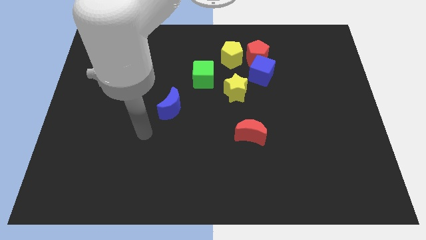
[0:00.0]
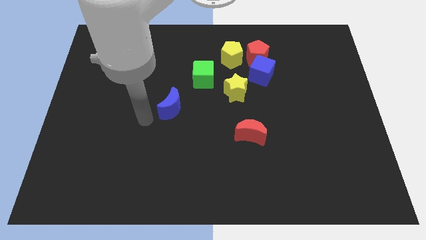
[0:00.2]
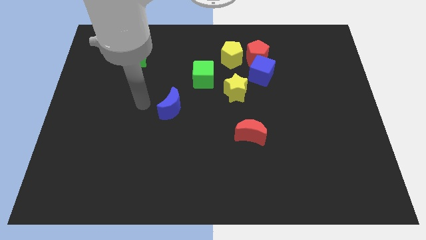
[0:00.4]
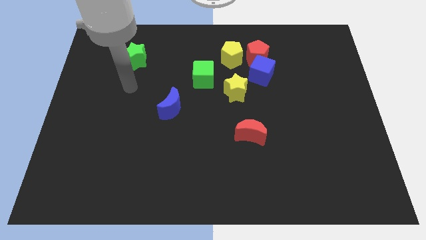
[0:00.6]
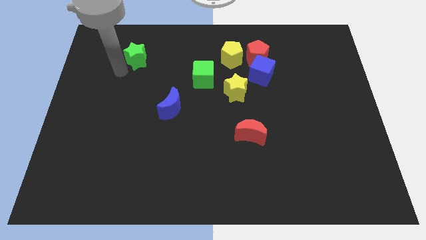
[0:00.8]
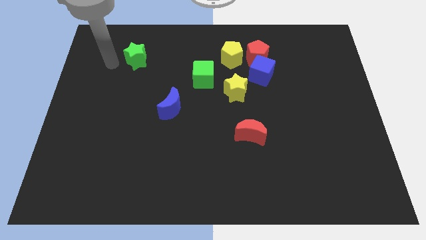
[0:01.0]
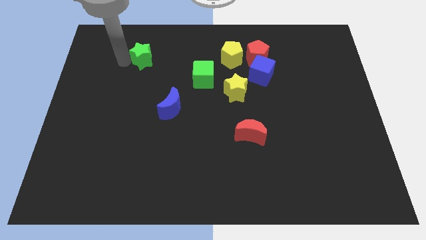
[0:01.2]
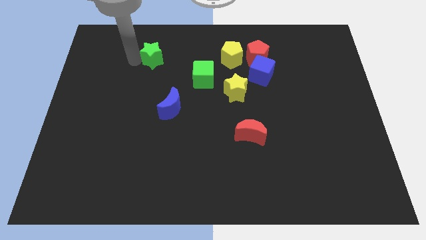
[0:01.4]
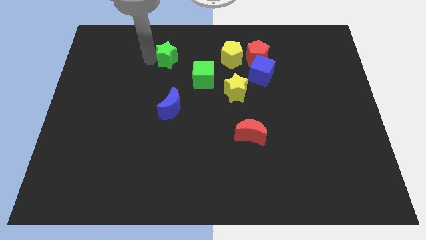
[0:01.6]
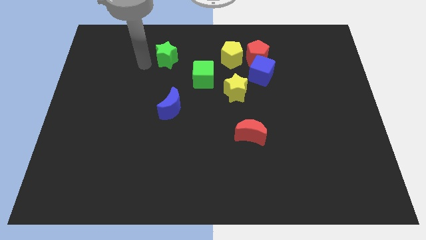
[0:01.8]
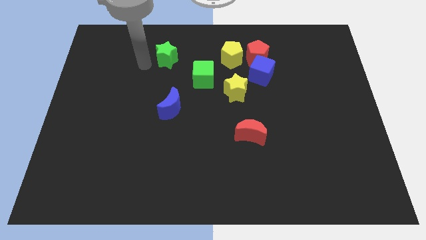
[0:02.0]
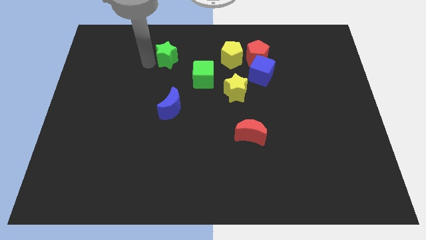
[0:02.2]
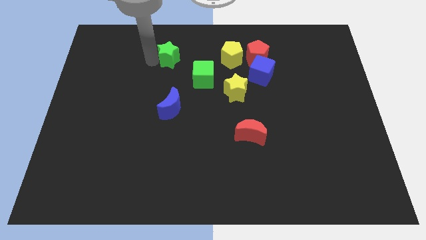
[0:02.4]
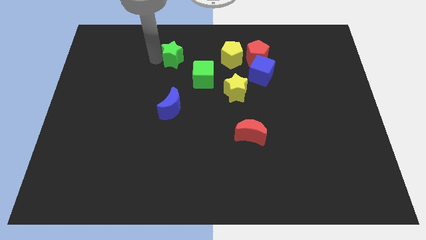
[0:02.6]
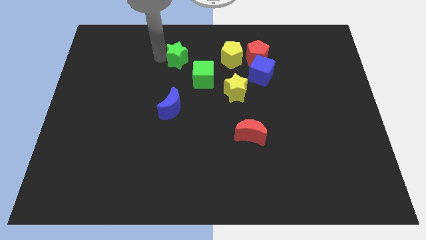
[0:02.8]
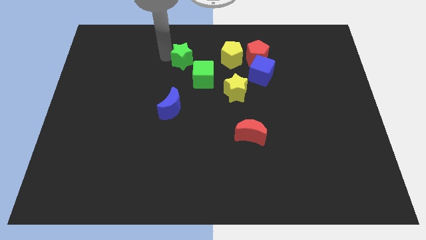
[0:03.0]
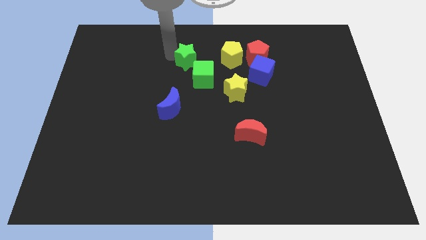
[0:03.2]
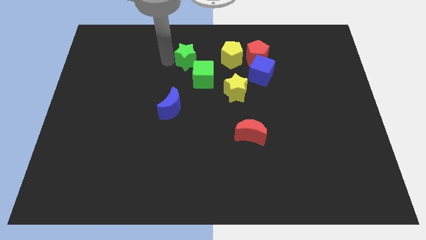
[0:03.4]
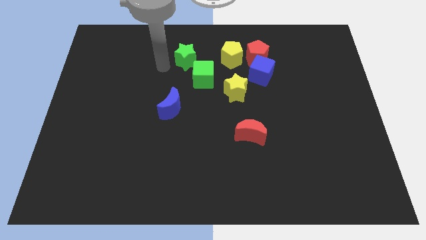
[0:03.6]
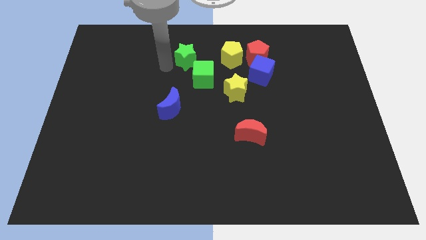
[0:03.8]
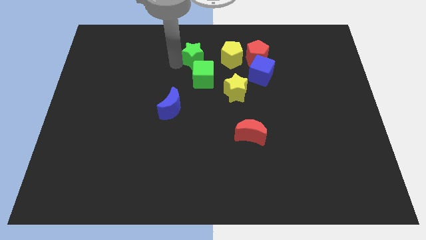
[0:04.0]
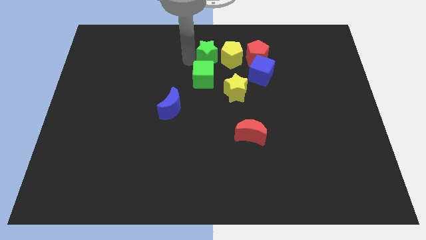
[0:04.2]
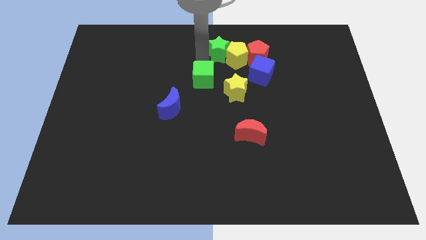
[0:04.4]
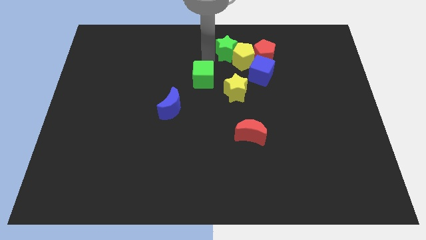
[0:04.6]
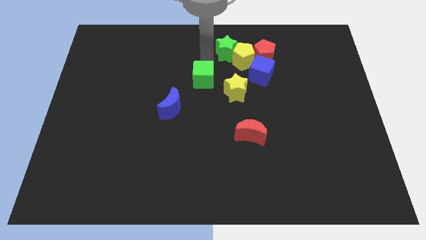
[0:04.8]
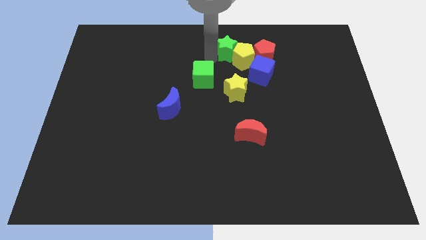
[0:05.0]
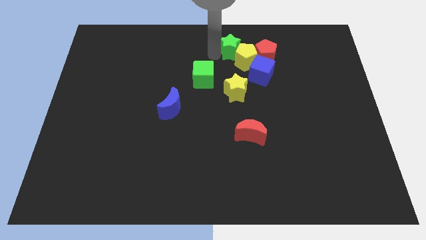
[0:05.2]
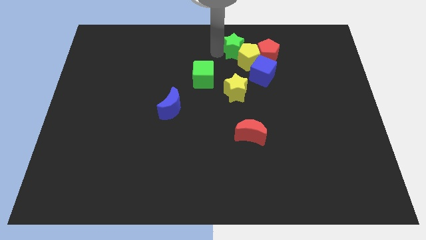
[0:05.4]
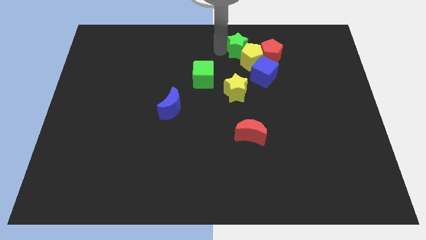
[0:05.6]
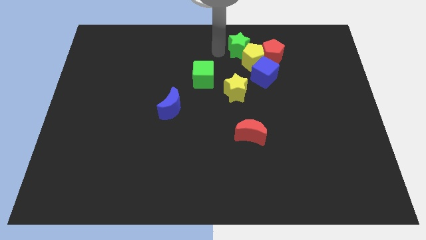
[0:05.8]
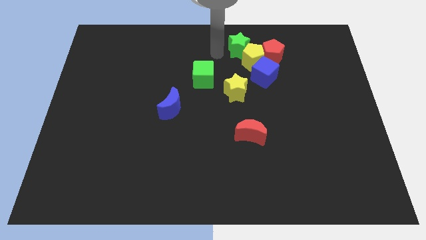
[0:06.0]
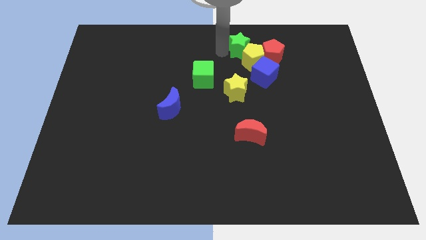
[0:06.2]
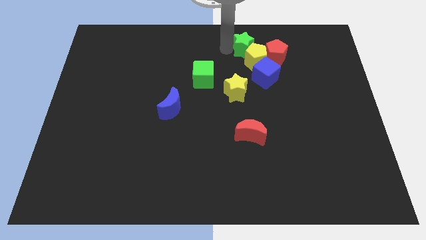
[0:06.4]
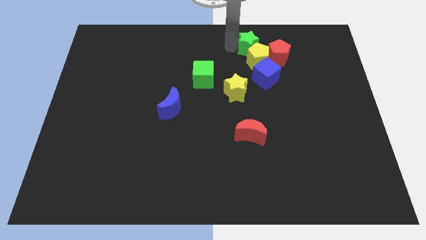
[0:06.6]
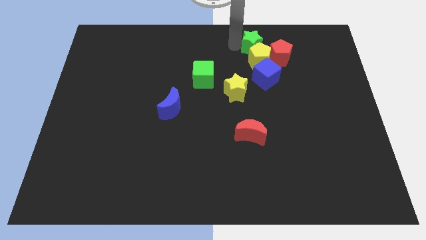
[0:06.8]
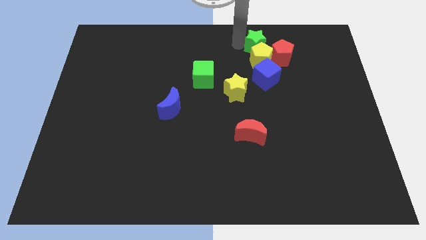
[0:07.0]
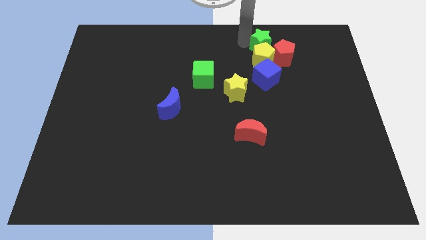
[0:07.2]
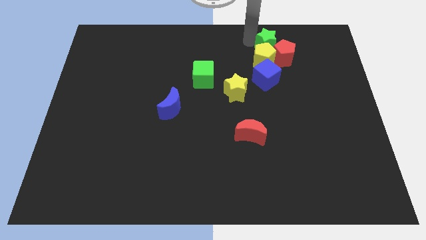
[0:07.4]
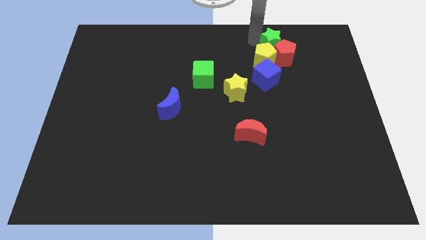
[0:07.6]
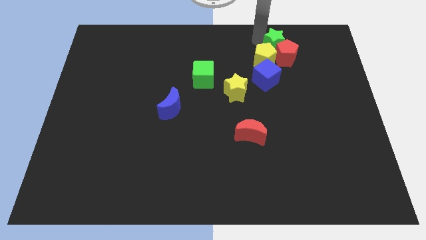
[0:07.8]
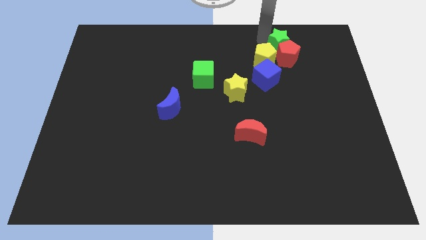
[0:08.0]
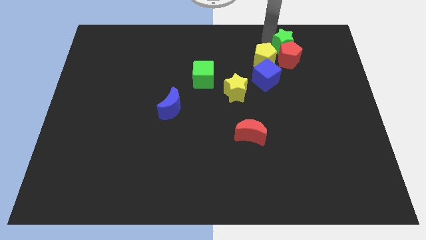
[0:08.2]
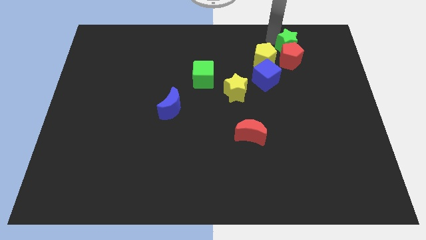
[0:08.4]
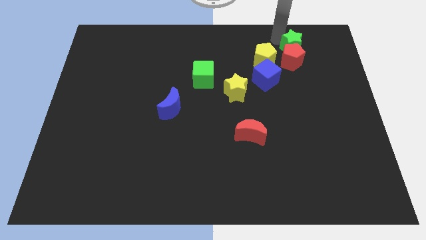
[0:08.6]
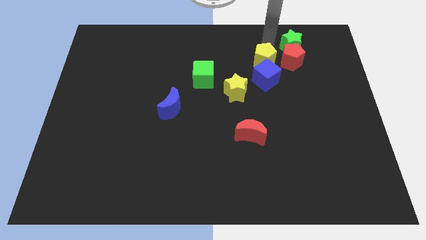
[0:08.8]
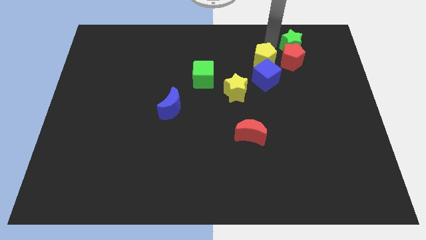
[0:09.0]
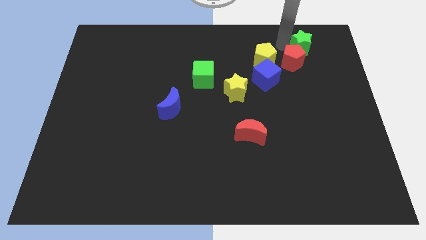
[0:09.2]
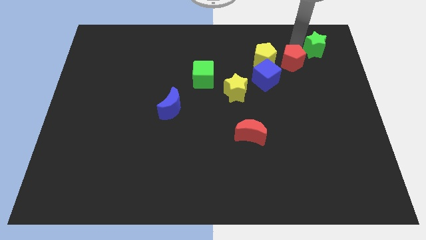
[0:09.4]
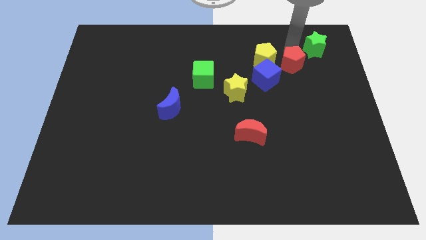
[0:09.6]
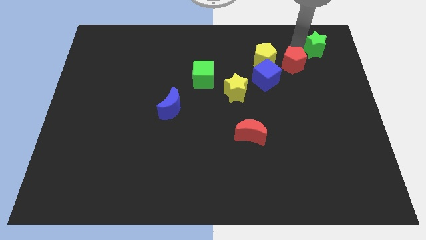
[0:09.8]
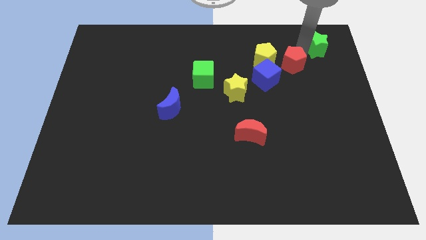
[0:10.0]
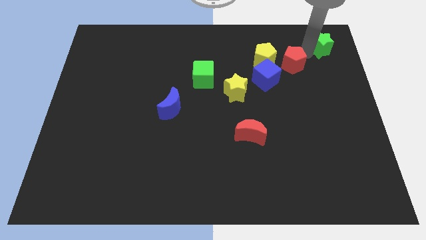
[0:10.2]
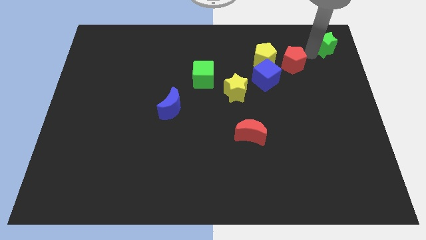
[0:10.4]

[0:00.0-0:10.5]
move the green star to the top right

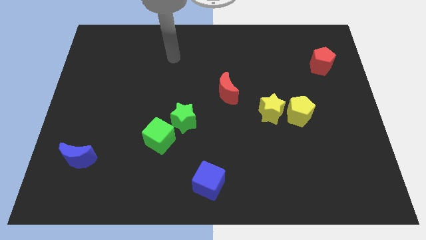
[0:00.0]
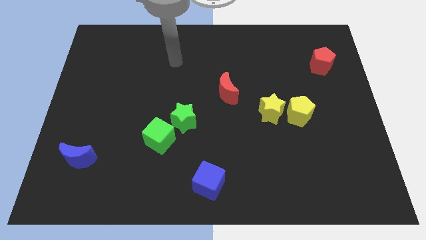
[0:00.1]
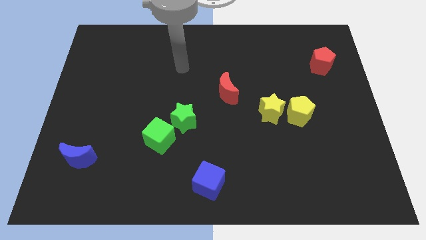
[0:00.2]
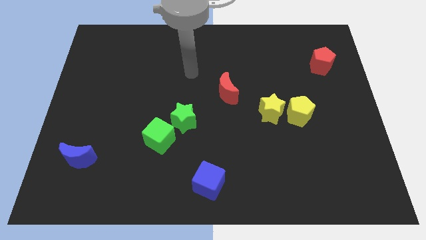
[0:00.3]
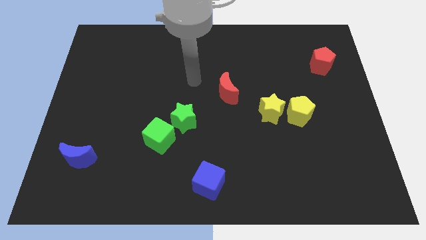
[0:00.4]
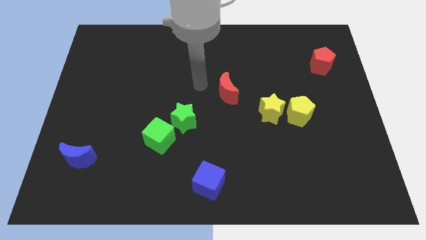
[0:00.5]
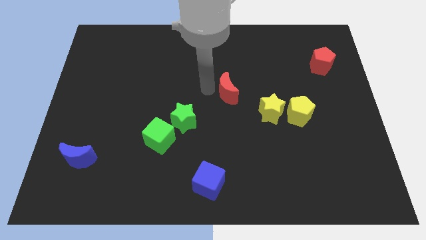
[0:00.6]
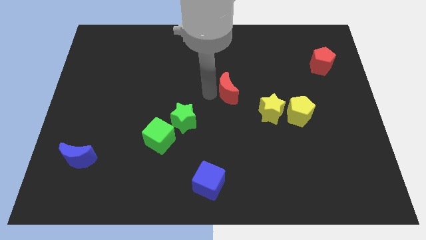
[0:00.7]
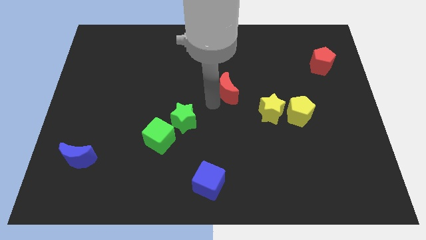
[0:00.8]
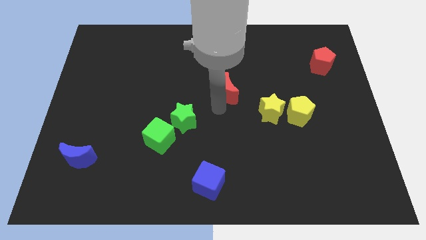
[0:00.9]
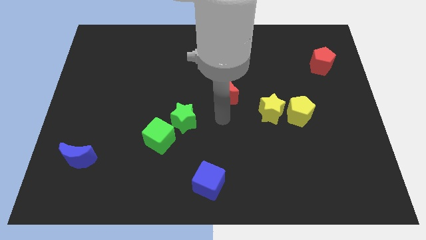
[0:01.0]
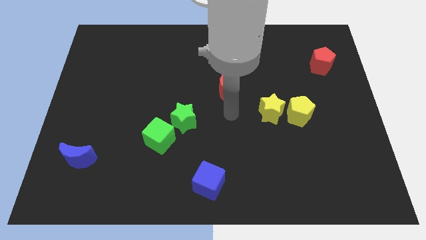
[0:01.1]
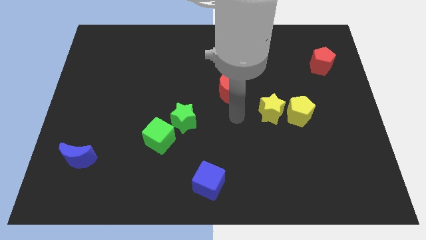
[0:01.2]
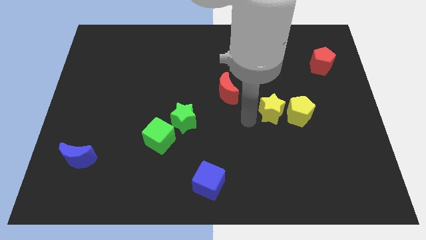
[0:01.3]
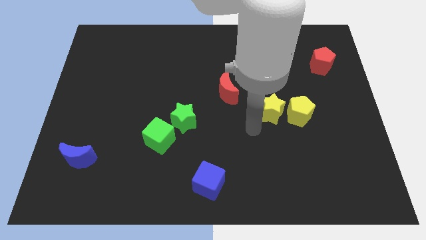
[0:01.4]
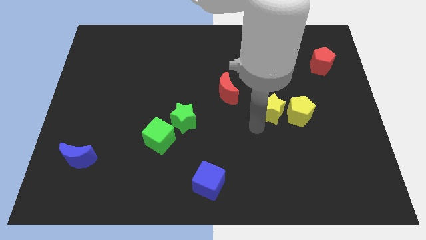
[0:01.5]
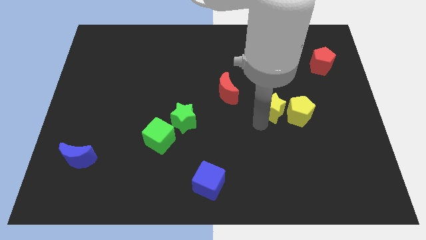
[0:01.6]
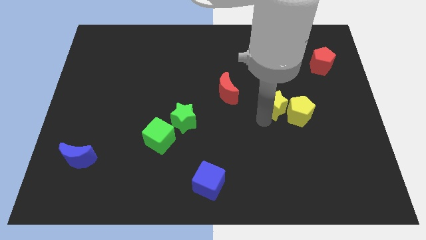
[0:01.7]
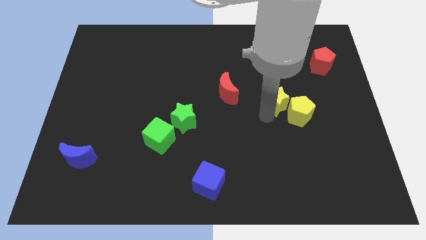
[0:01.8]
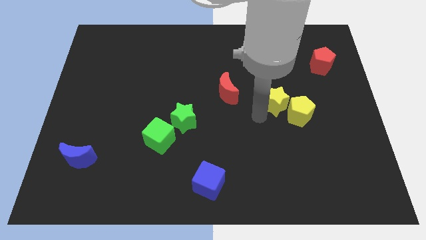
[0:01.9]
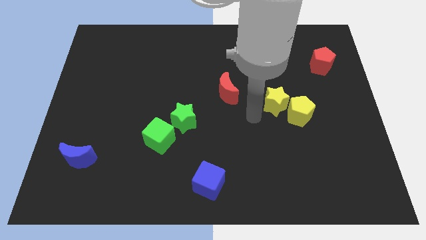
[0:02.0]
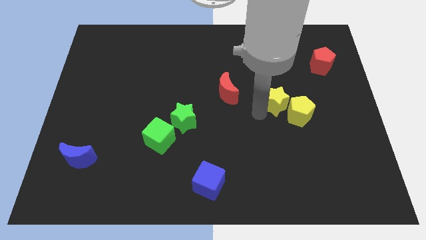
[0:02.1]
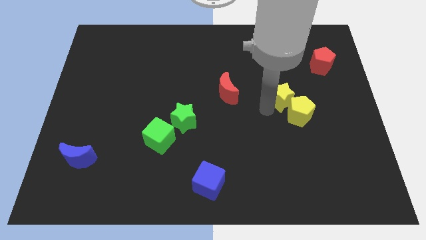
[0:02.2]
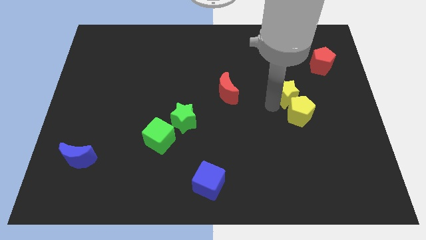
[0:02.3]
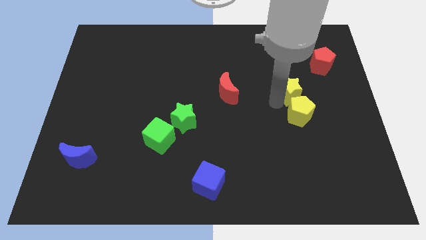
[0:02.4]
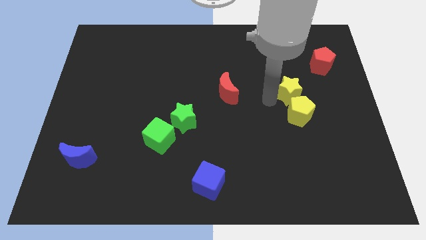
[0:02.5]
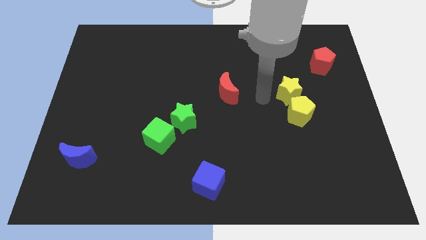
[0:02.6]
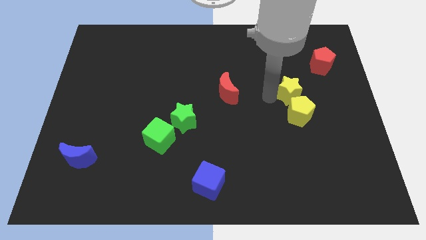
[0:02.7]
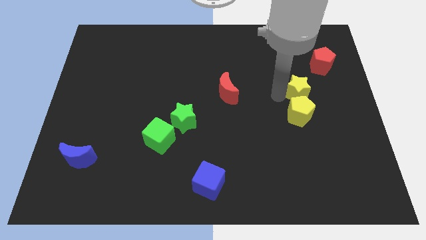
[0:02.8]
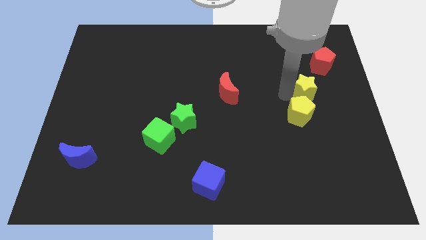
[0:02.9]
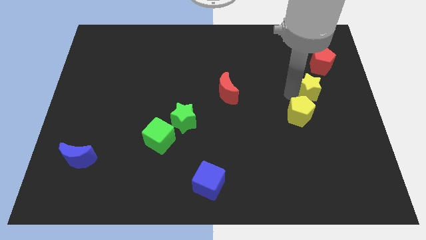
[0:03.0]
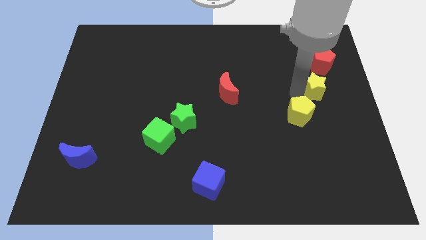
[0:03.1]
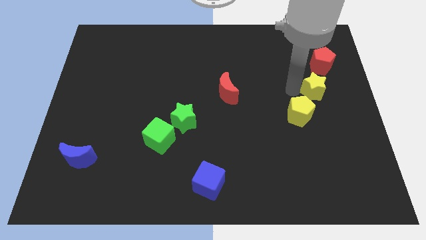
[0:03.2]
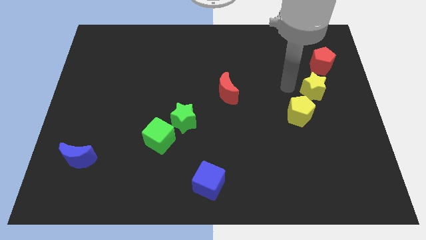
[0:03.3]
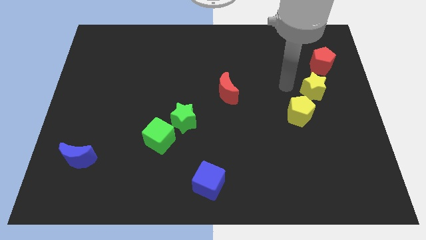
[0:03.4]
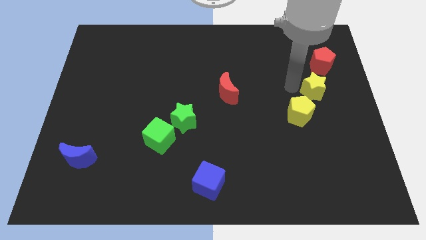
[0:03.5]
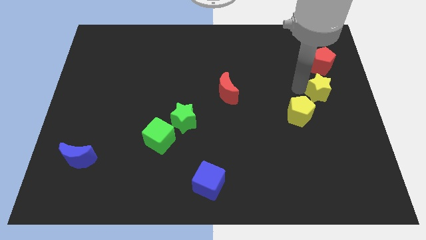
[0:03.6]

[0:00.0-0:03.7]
move the yellow star to the right side of the board
